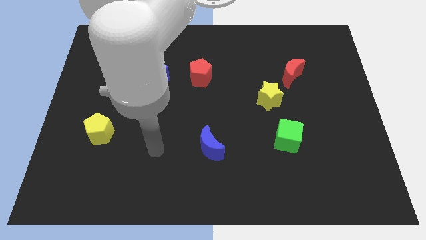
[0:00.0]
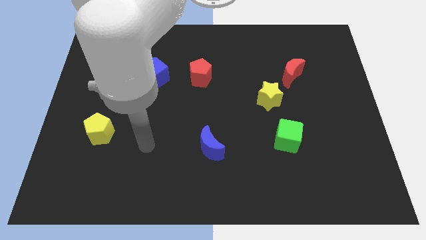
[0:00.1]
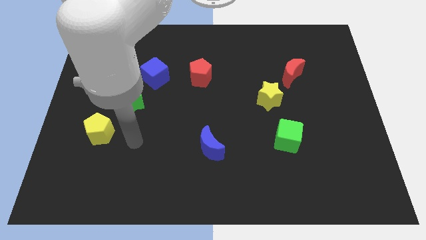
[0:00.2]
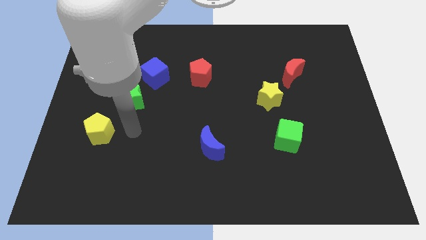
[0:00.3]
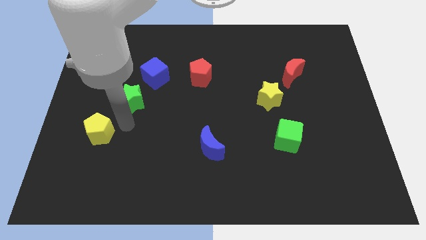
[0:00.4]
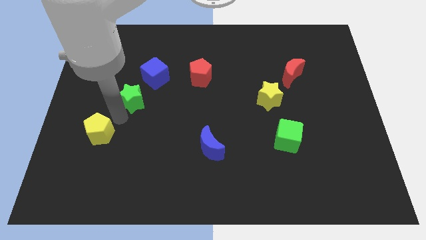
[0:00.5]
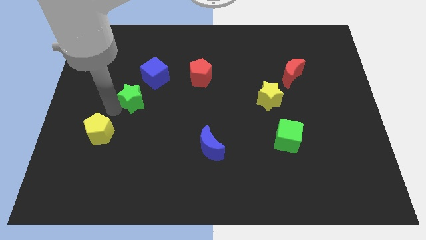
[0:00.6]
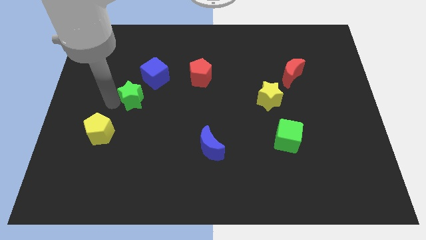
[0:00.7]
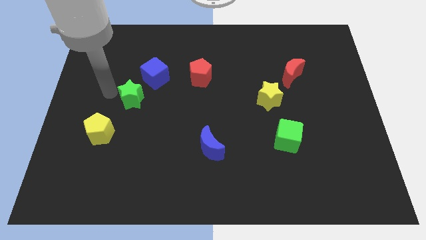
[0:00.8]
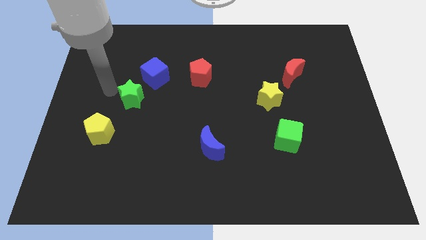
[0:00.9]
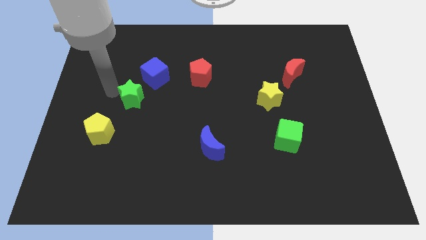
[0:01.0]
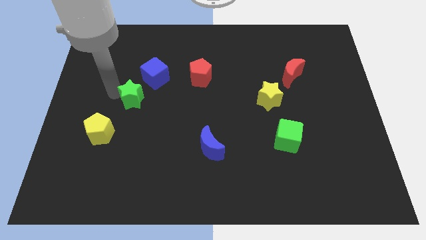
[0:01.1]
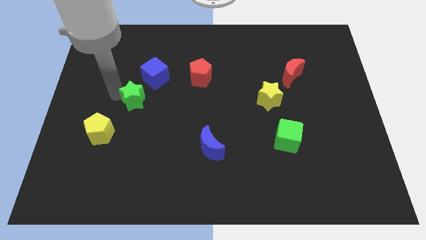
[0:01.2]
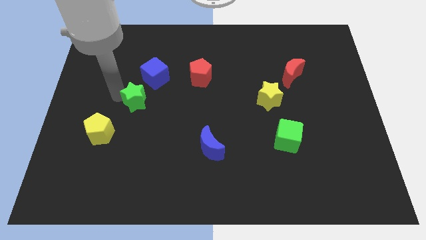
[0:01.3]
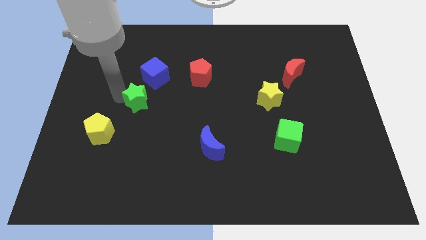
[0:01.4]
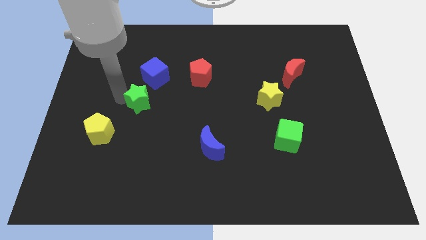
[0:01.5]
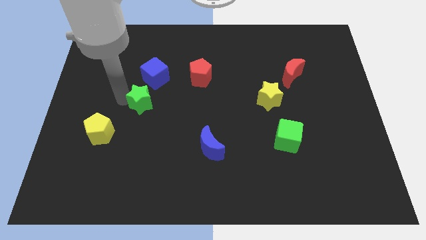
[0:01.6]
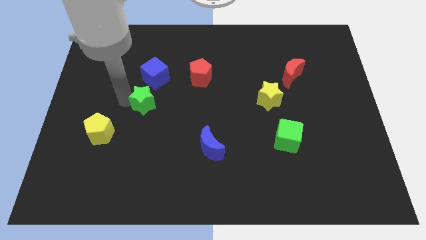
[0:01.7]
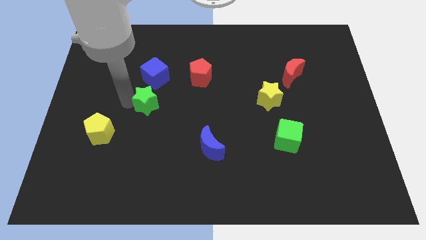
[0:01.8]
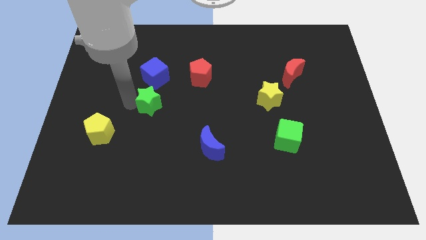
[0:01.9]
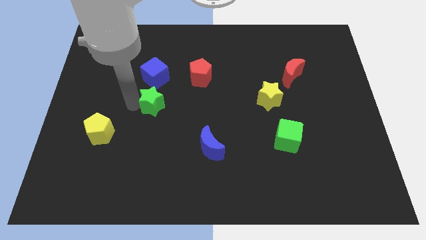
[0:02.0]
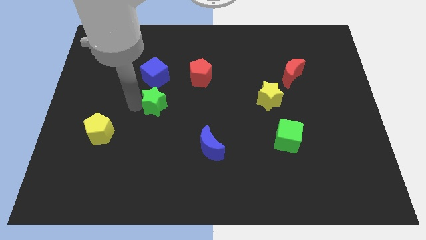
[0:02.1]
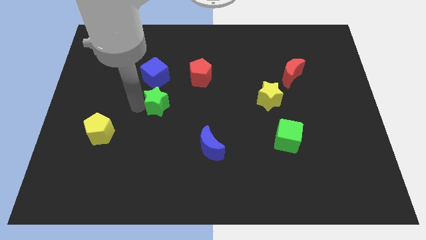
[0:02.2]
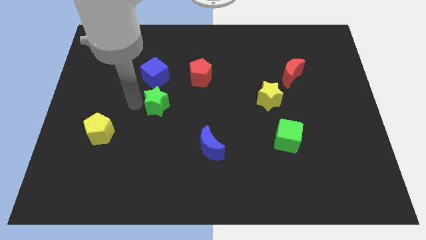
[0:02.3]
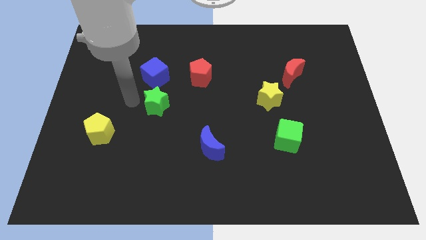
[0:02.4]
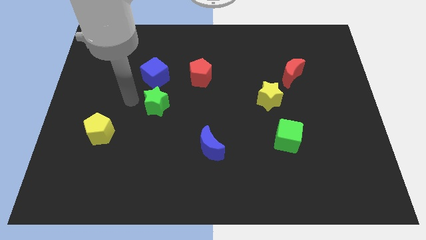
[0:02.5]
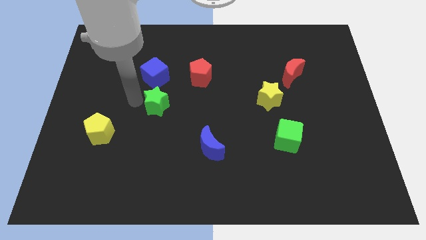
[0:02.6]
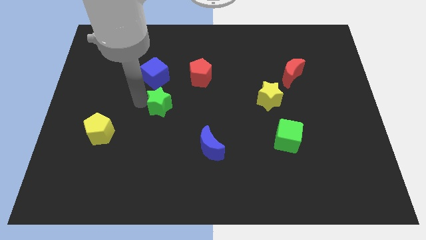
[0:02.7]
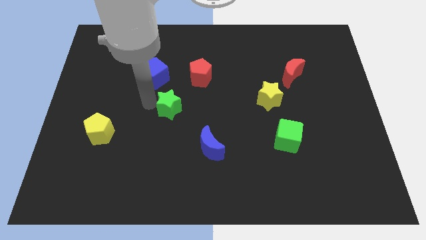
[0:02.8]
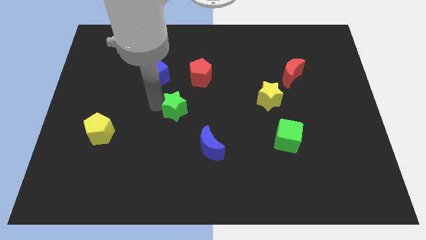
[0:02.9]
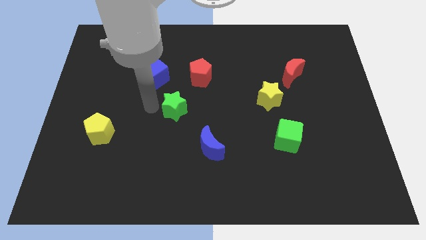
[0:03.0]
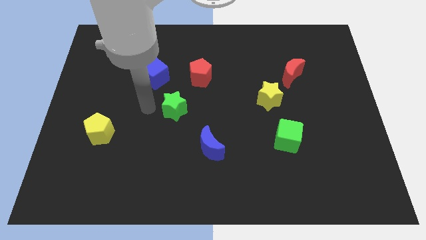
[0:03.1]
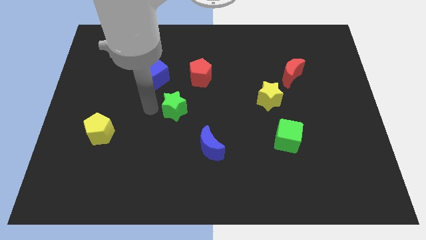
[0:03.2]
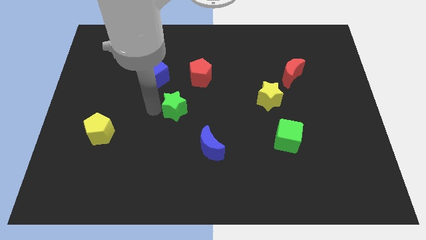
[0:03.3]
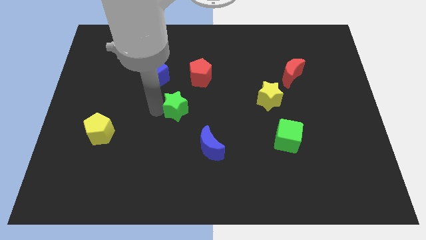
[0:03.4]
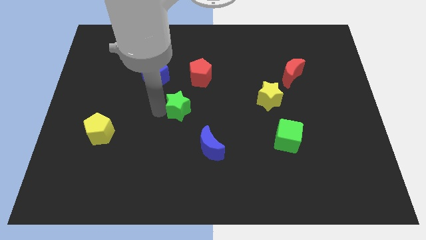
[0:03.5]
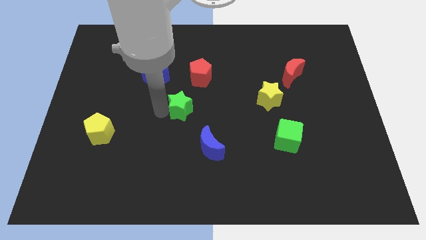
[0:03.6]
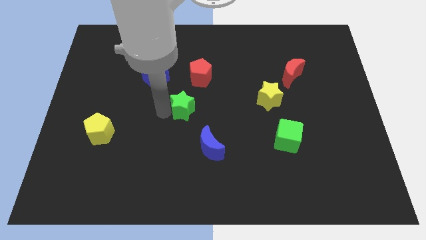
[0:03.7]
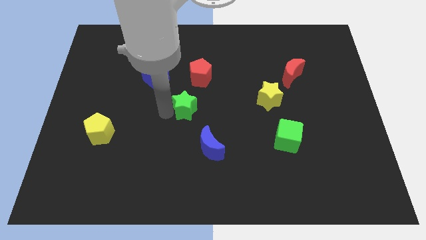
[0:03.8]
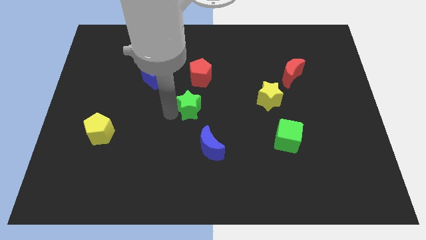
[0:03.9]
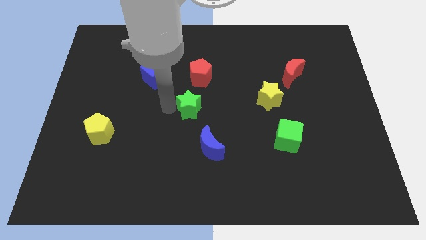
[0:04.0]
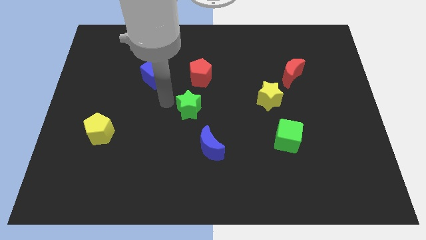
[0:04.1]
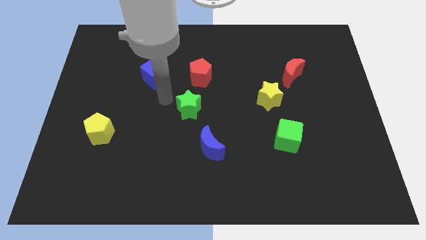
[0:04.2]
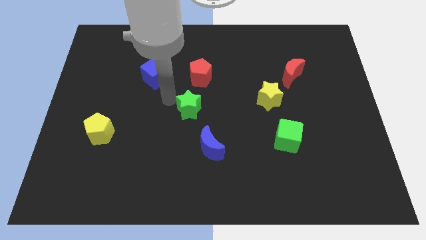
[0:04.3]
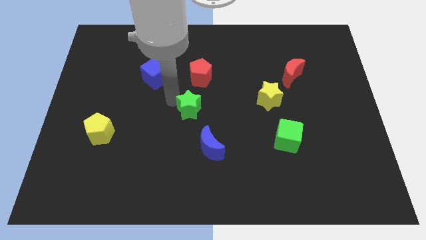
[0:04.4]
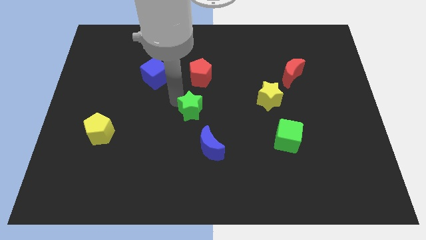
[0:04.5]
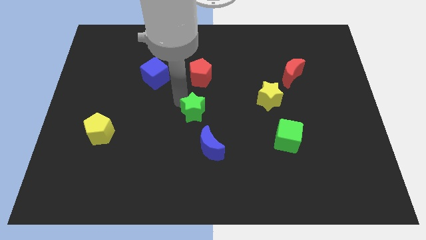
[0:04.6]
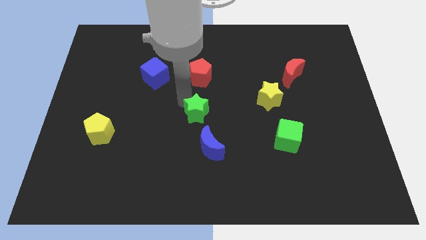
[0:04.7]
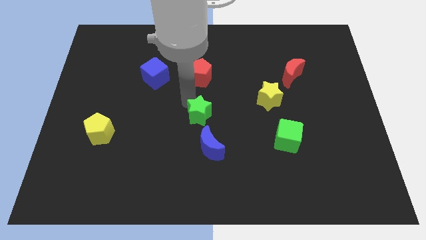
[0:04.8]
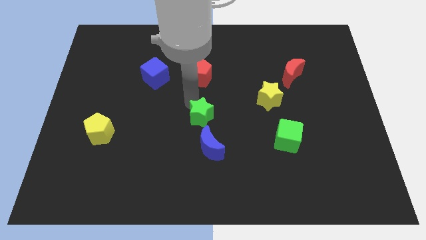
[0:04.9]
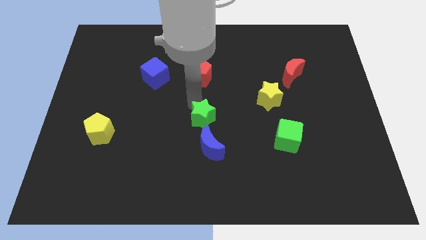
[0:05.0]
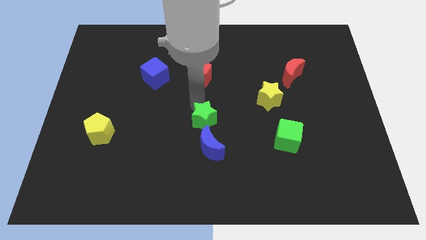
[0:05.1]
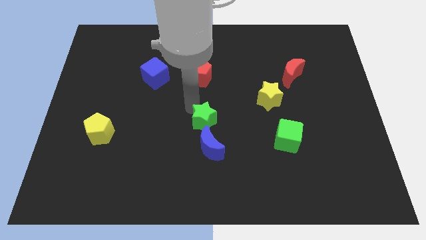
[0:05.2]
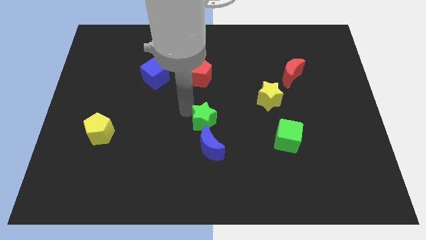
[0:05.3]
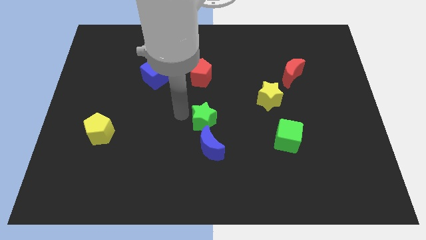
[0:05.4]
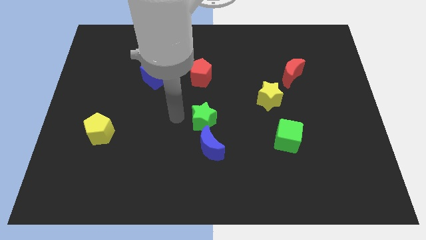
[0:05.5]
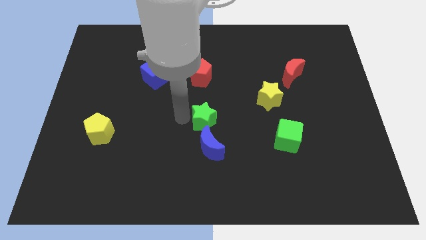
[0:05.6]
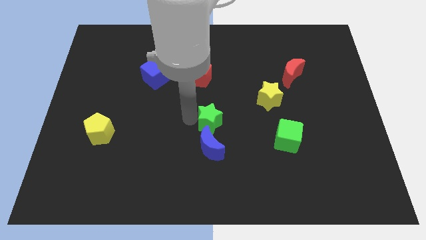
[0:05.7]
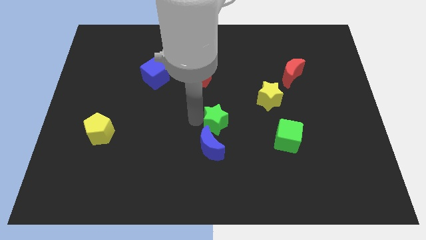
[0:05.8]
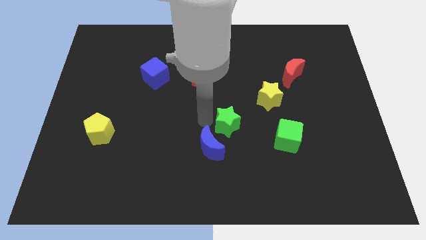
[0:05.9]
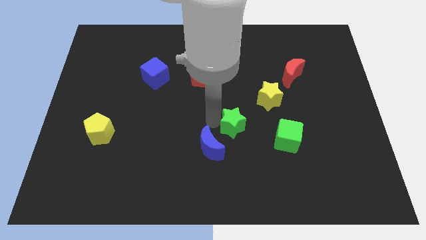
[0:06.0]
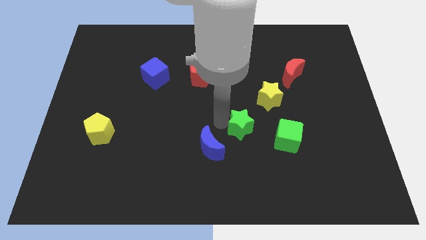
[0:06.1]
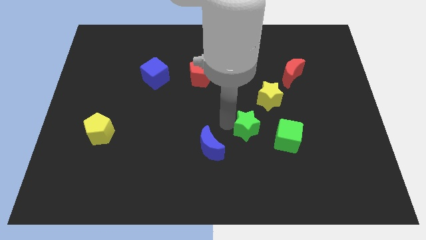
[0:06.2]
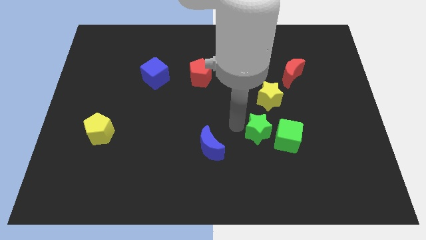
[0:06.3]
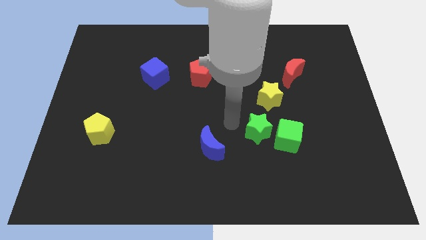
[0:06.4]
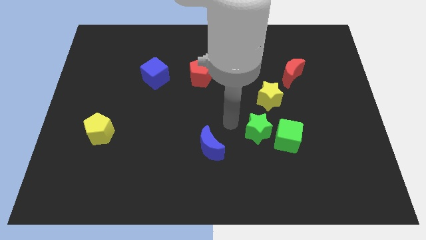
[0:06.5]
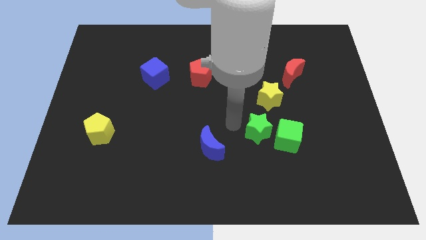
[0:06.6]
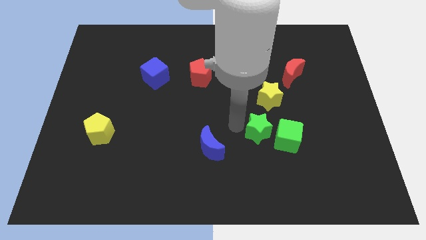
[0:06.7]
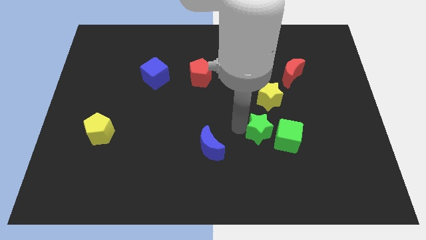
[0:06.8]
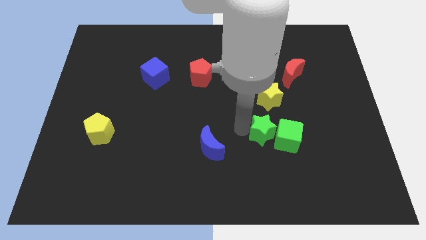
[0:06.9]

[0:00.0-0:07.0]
slide the green star towards the green cube

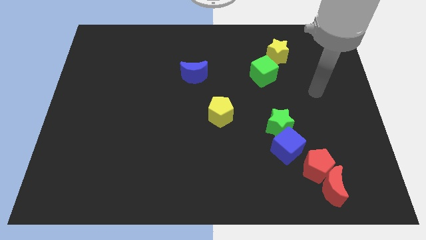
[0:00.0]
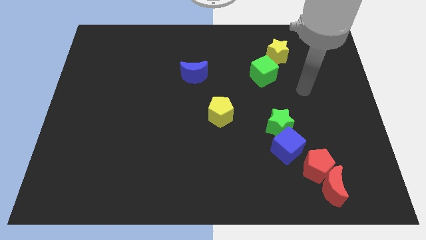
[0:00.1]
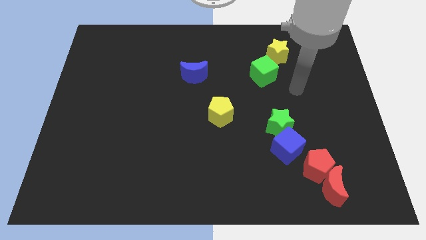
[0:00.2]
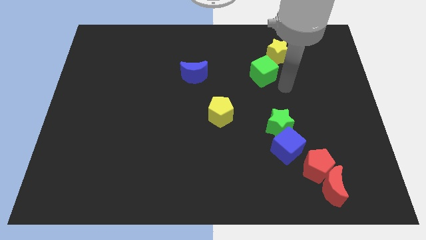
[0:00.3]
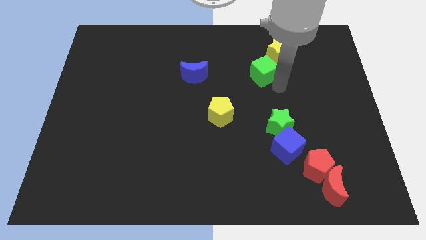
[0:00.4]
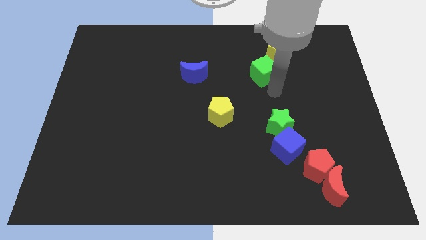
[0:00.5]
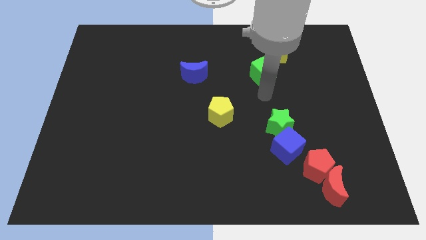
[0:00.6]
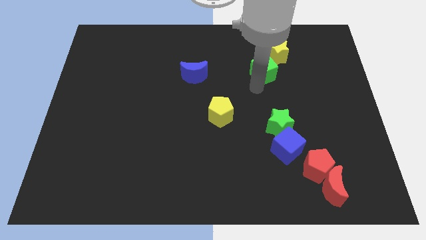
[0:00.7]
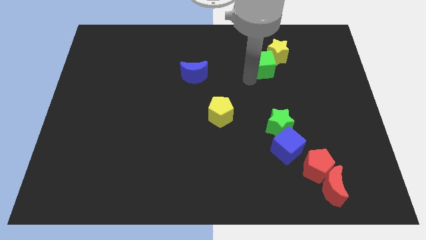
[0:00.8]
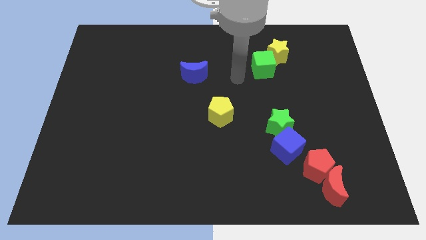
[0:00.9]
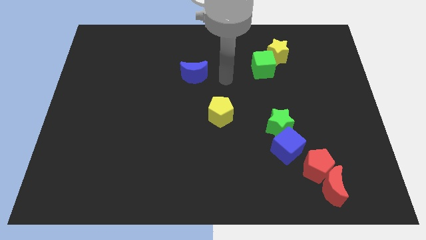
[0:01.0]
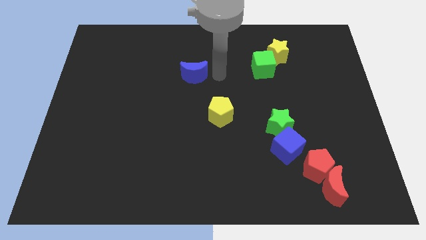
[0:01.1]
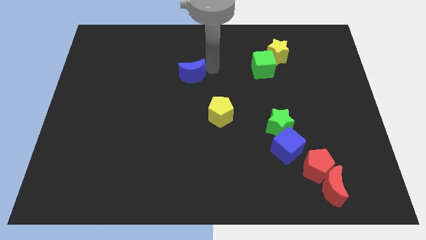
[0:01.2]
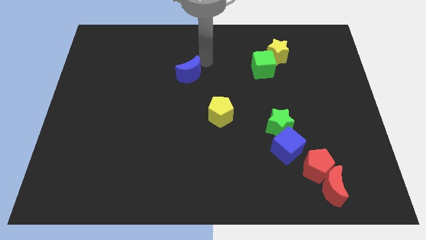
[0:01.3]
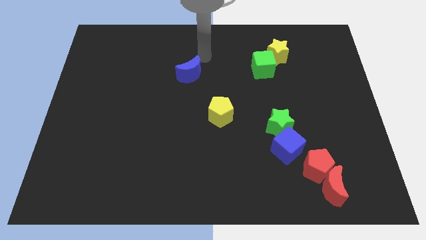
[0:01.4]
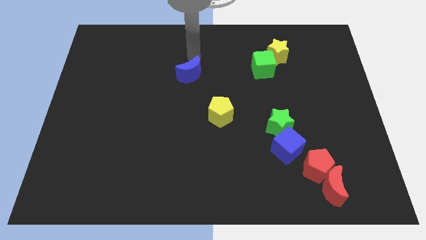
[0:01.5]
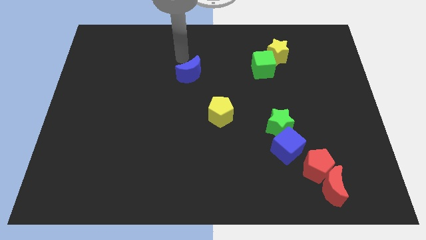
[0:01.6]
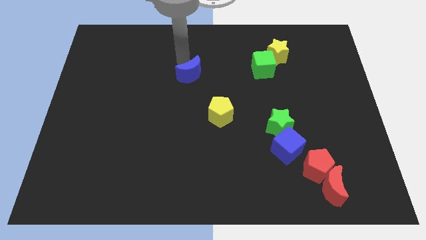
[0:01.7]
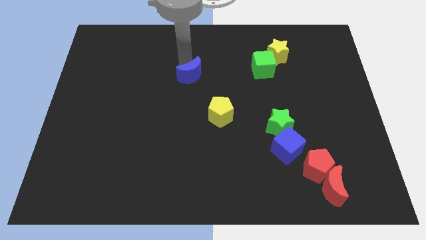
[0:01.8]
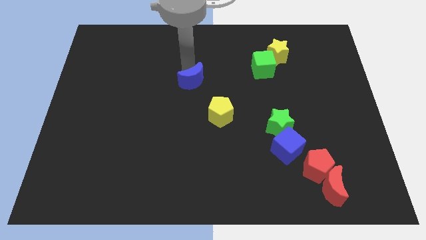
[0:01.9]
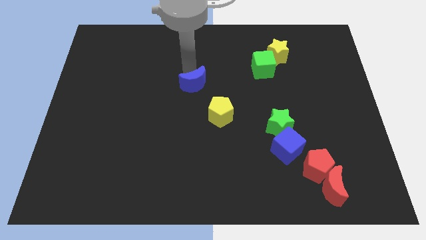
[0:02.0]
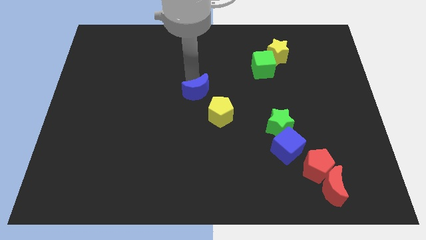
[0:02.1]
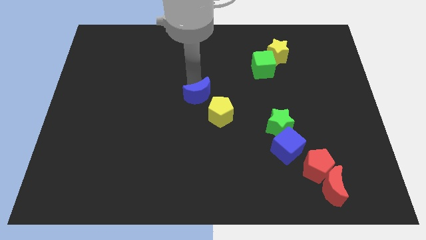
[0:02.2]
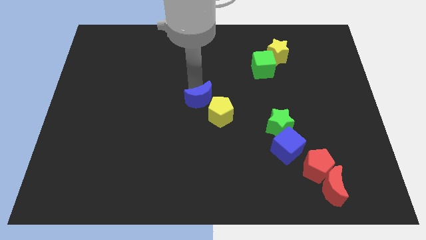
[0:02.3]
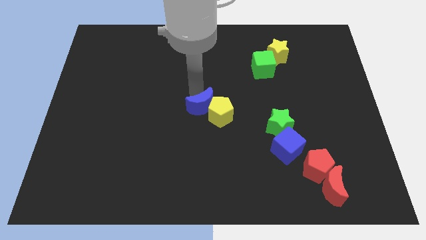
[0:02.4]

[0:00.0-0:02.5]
slide the blue moon close to the yellow pentagon
